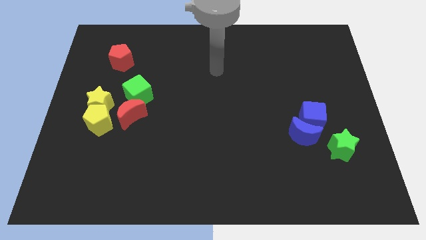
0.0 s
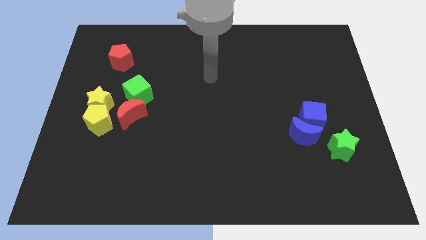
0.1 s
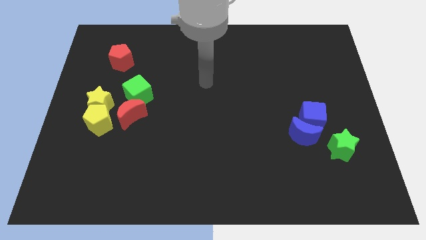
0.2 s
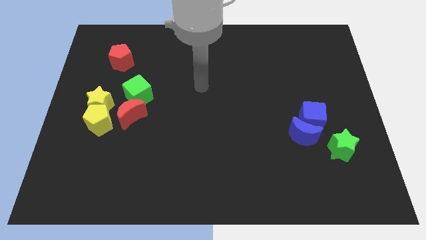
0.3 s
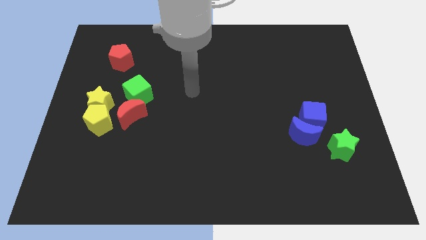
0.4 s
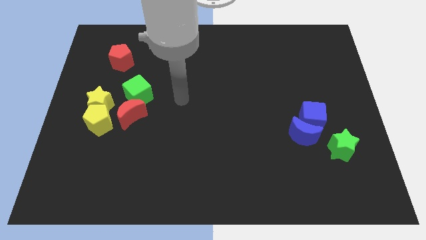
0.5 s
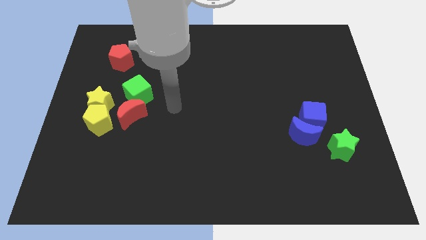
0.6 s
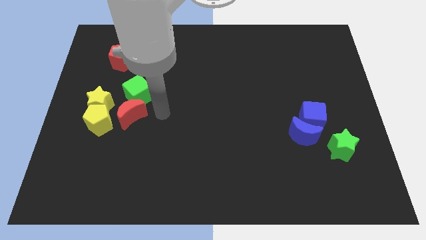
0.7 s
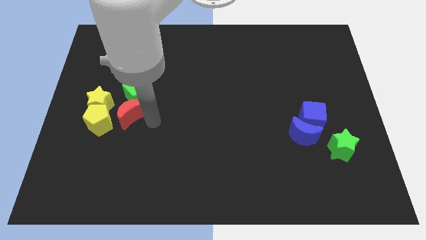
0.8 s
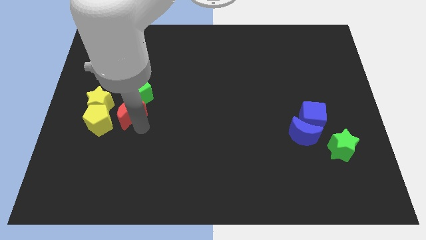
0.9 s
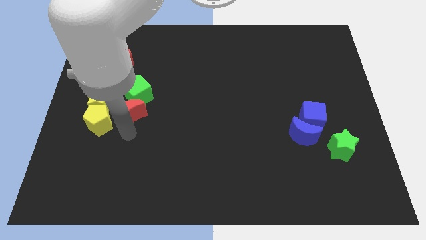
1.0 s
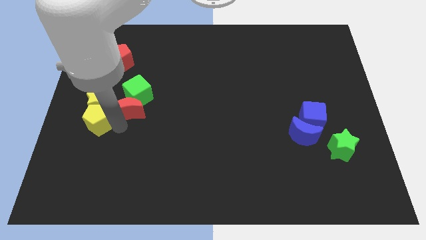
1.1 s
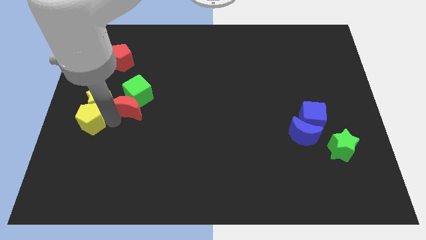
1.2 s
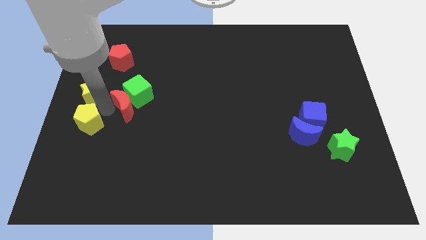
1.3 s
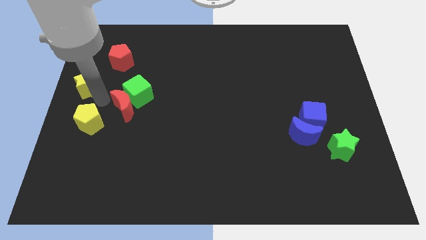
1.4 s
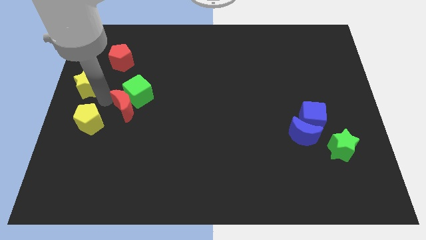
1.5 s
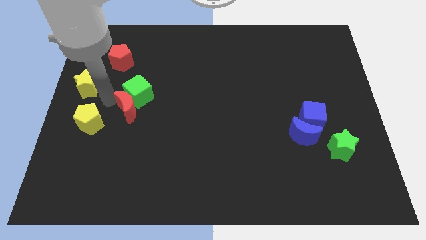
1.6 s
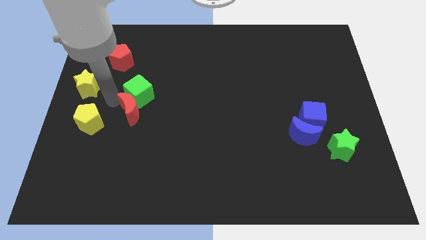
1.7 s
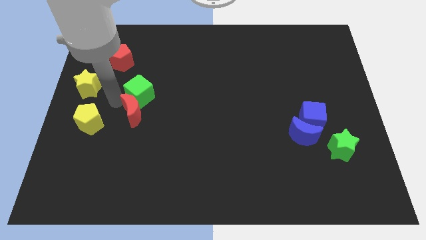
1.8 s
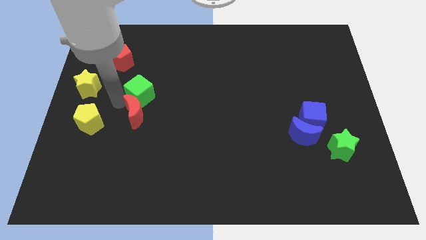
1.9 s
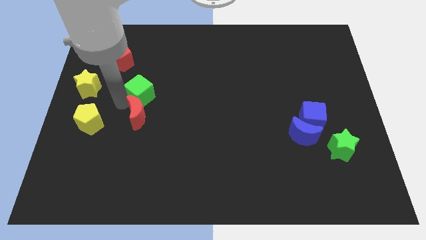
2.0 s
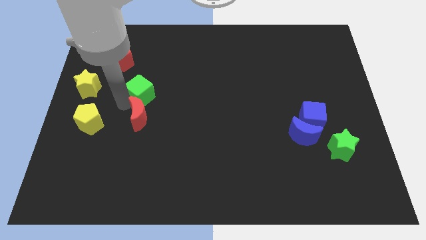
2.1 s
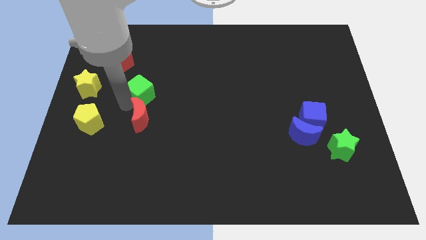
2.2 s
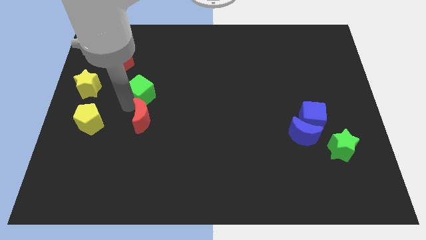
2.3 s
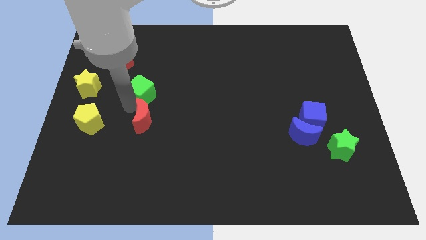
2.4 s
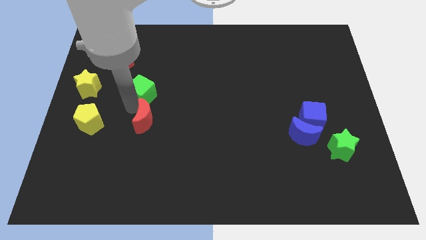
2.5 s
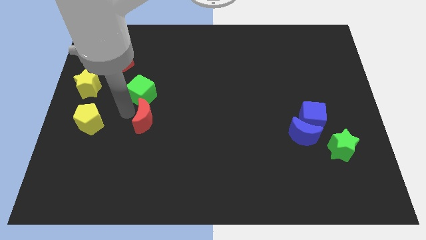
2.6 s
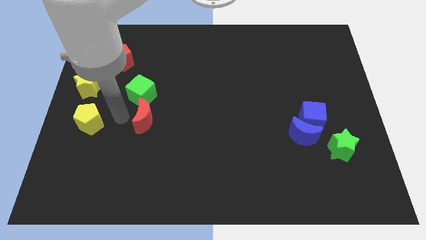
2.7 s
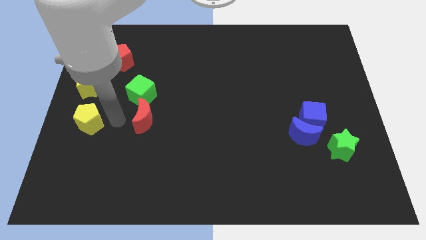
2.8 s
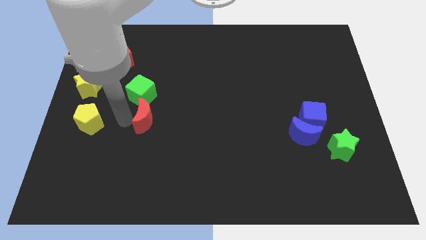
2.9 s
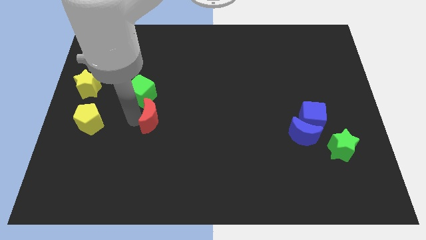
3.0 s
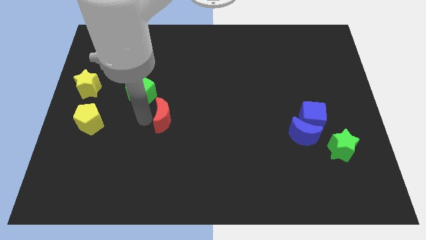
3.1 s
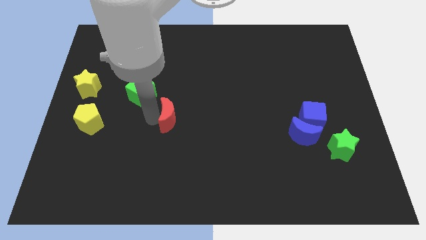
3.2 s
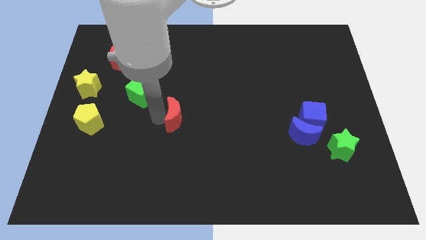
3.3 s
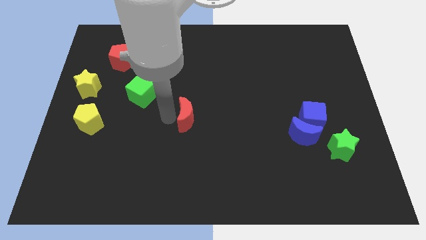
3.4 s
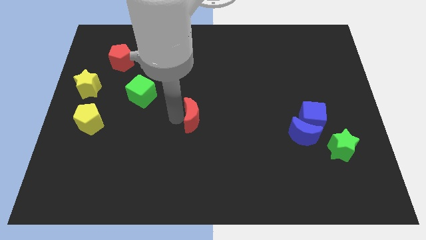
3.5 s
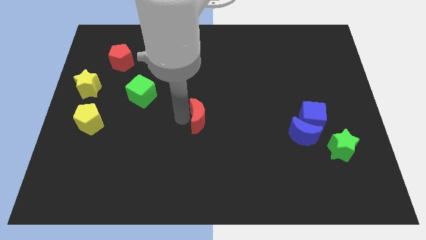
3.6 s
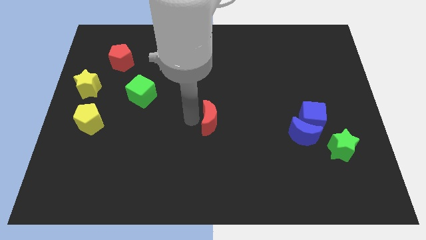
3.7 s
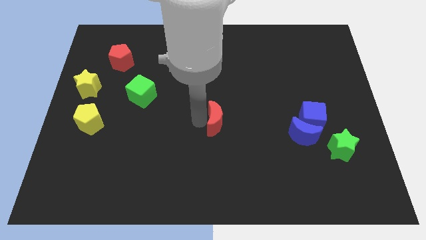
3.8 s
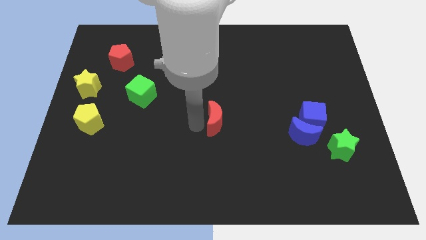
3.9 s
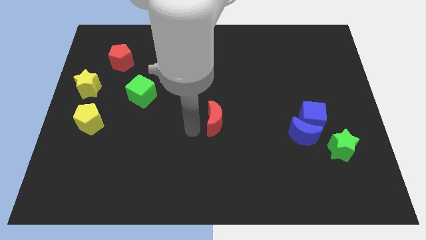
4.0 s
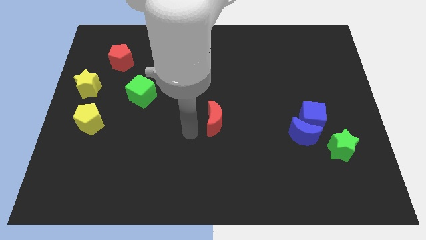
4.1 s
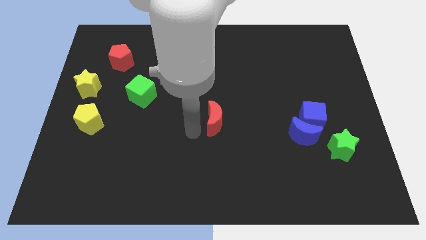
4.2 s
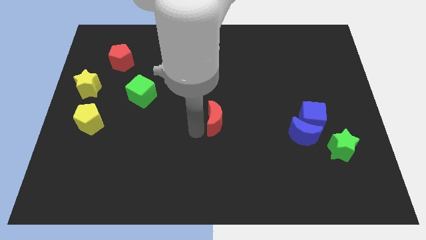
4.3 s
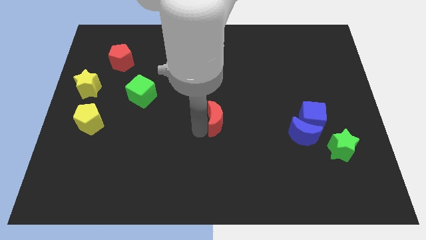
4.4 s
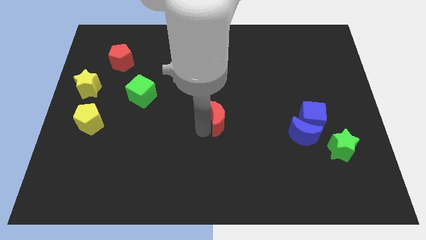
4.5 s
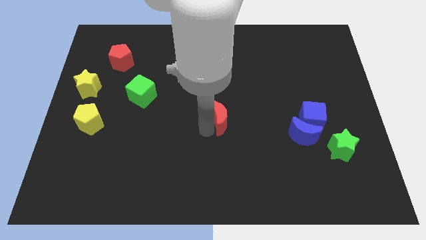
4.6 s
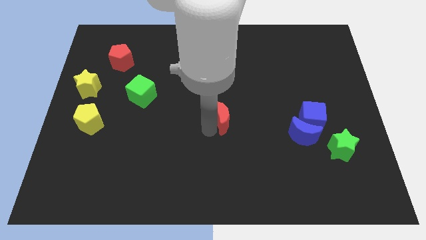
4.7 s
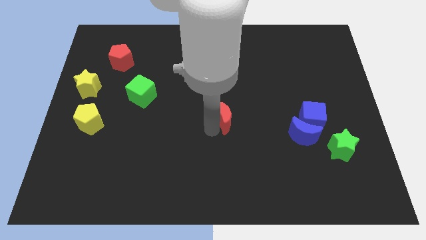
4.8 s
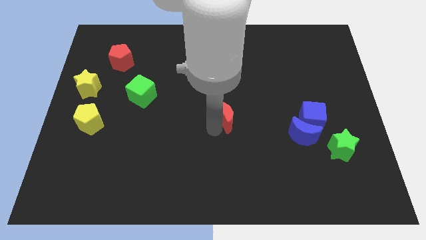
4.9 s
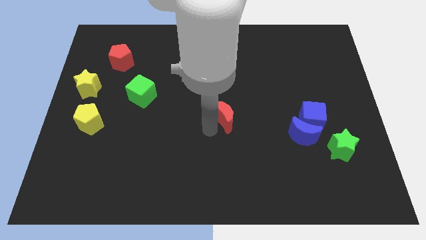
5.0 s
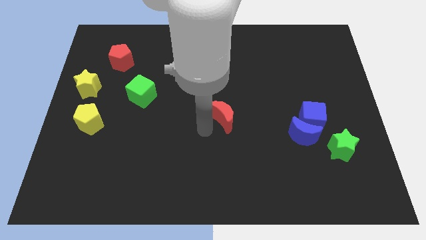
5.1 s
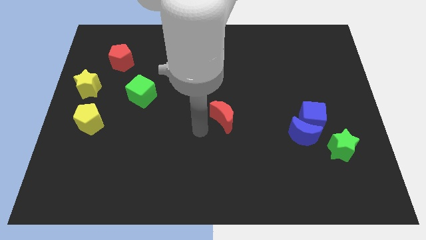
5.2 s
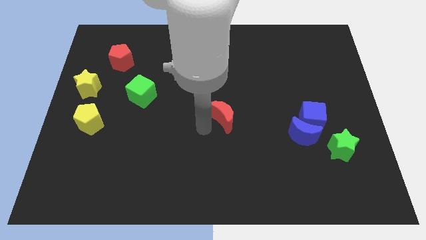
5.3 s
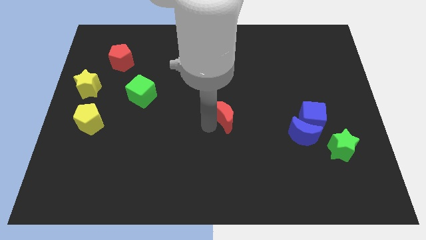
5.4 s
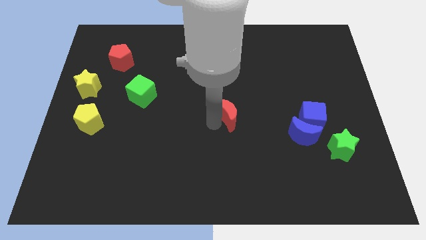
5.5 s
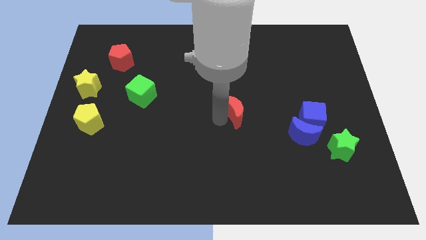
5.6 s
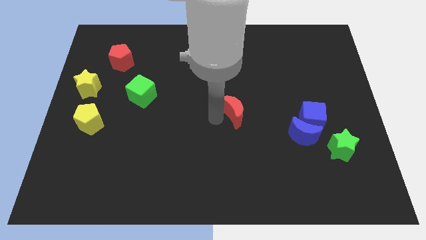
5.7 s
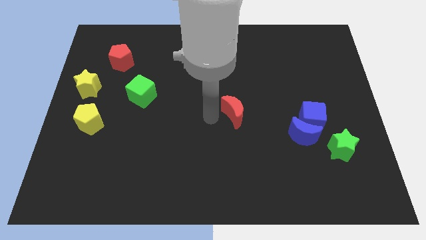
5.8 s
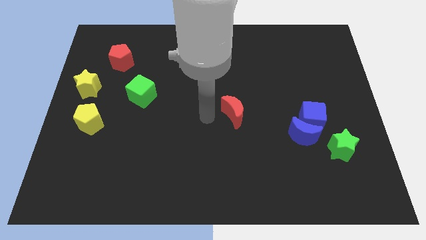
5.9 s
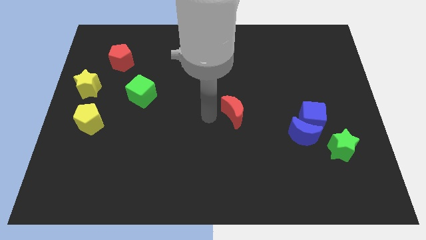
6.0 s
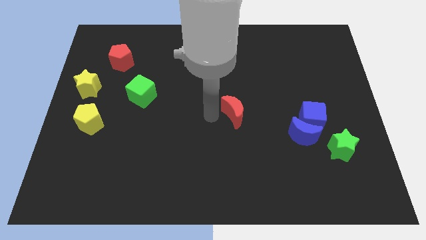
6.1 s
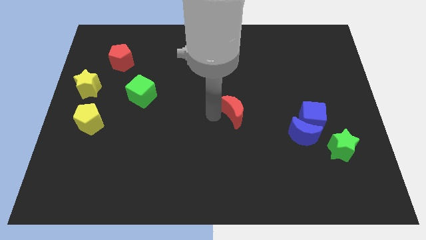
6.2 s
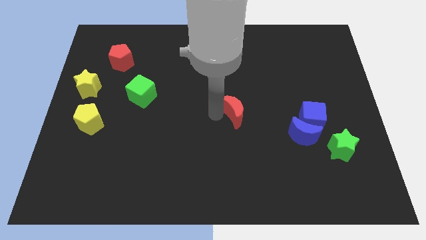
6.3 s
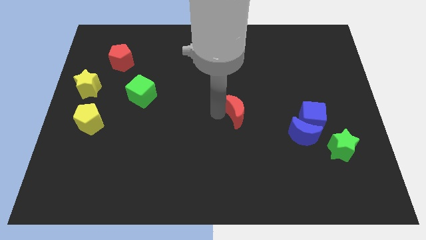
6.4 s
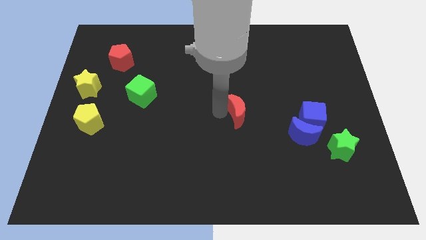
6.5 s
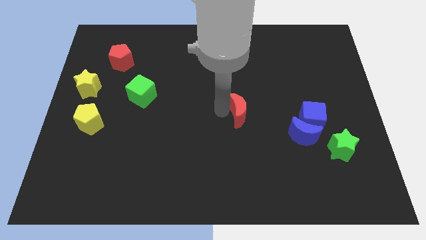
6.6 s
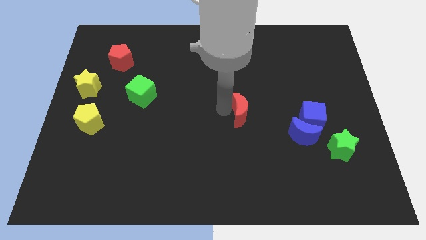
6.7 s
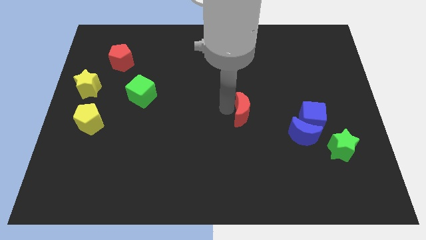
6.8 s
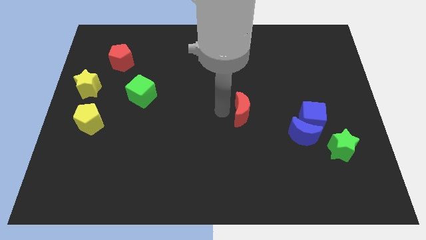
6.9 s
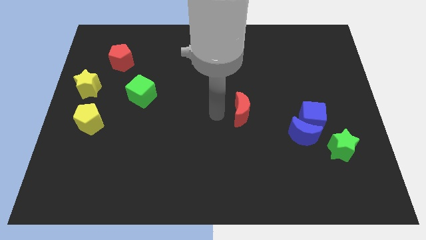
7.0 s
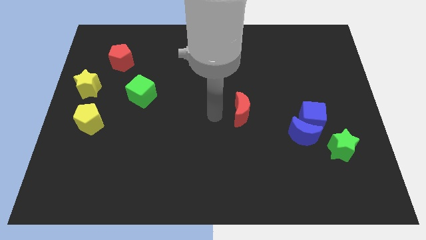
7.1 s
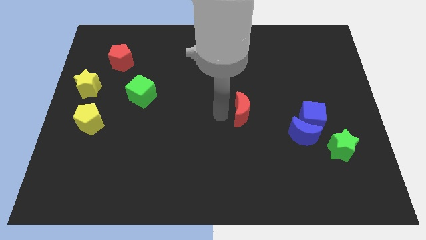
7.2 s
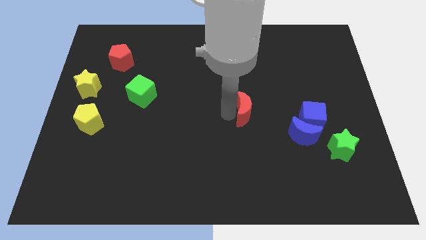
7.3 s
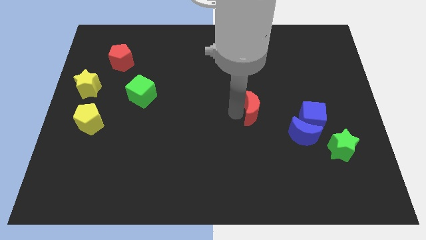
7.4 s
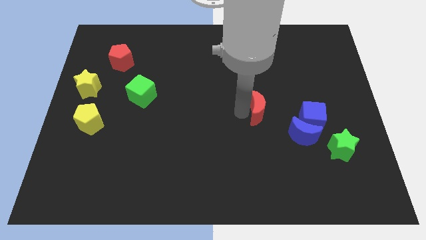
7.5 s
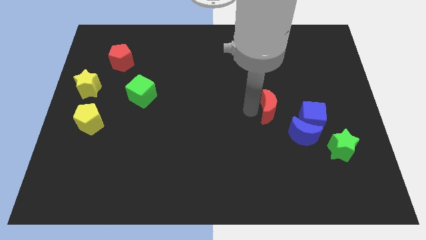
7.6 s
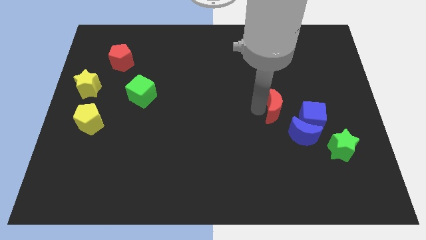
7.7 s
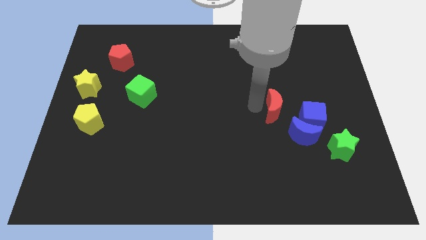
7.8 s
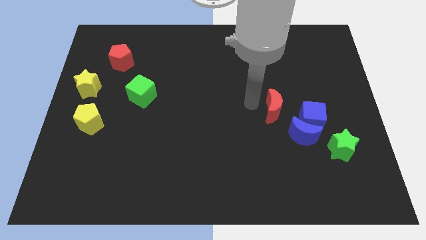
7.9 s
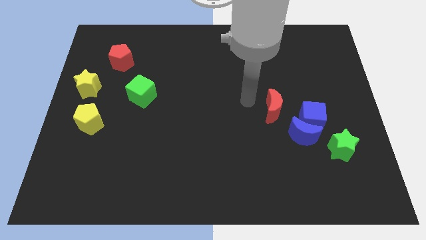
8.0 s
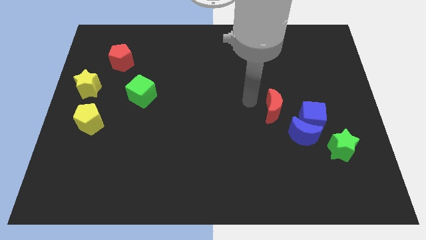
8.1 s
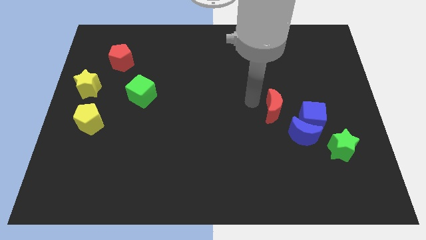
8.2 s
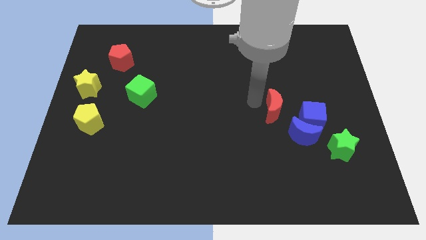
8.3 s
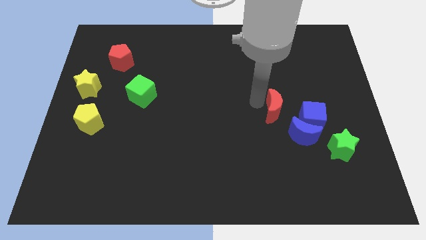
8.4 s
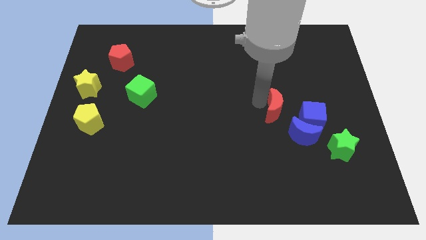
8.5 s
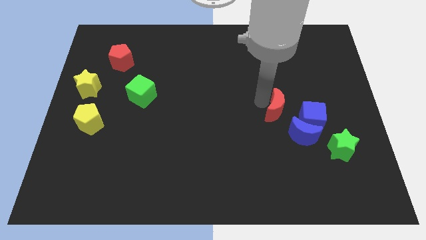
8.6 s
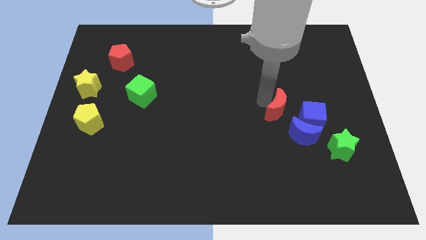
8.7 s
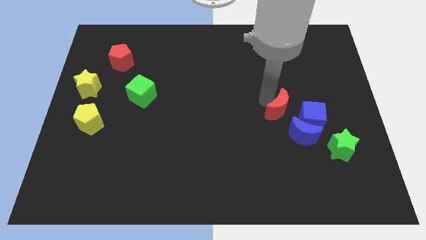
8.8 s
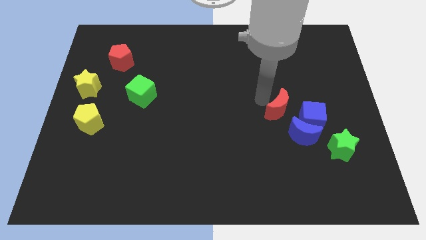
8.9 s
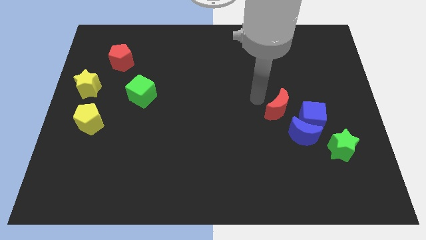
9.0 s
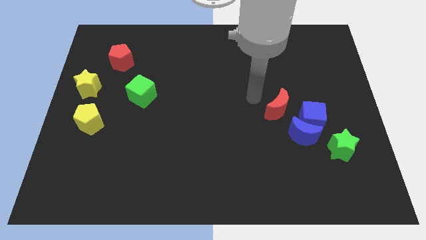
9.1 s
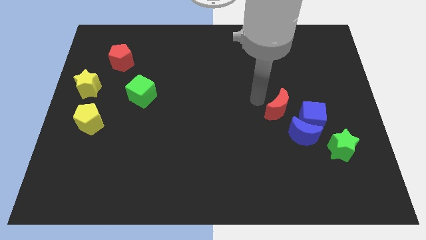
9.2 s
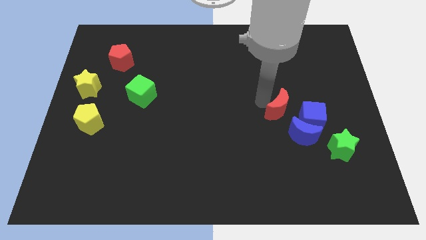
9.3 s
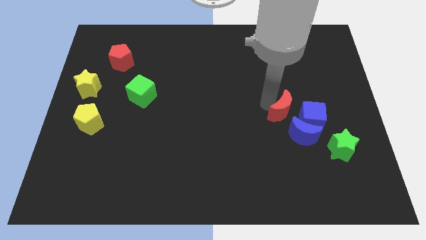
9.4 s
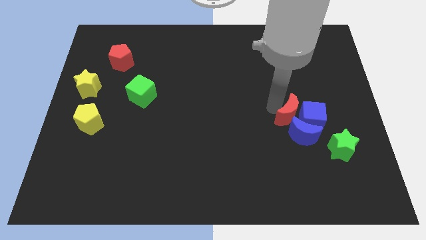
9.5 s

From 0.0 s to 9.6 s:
push the red moon to the blue cube
